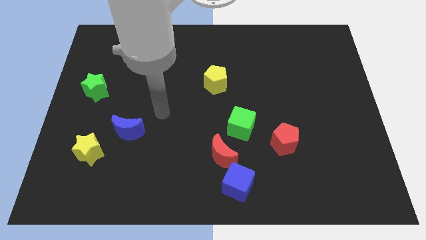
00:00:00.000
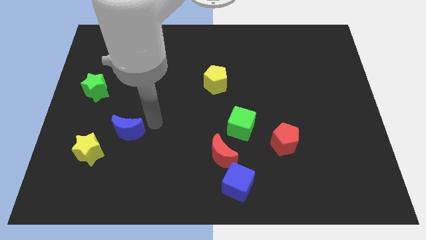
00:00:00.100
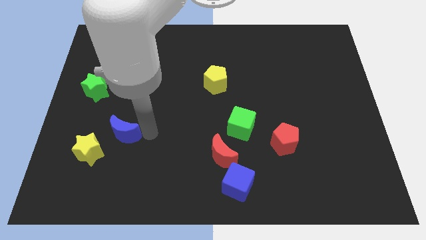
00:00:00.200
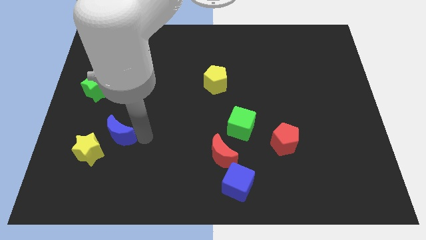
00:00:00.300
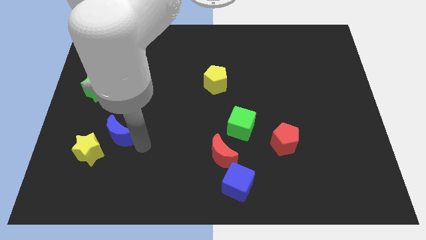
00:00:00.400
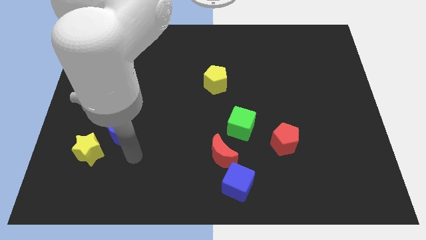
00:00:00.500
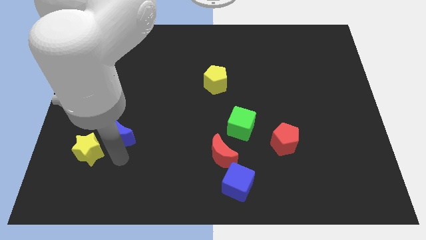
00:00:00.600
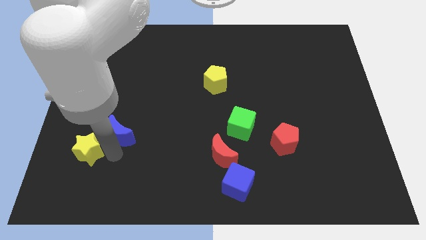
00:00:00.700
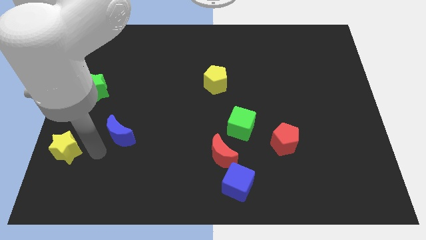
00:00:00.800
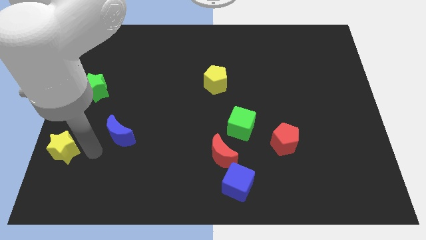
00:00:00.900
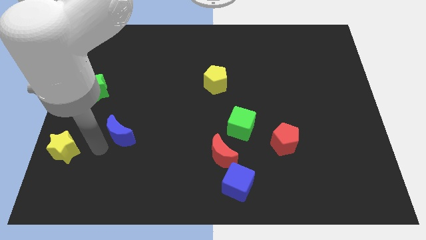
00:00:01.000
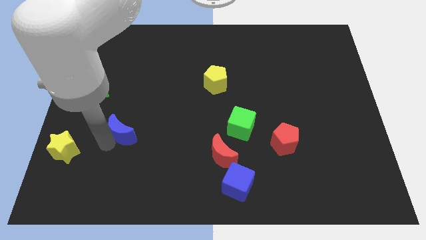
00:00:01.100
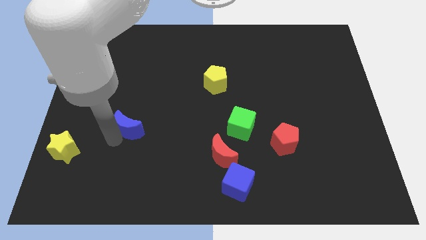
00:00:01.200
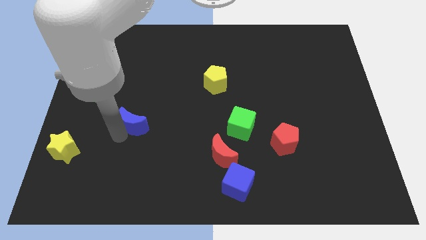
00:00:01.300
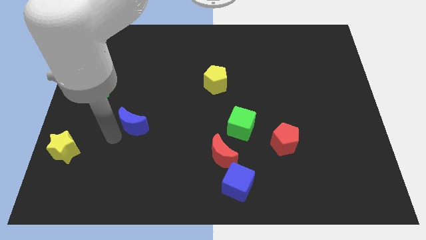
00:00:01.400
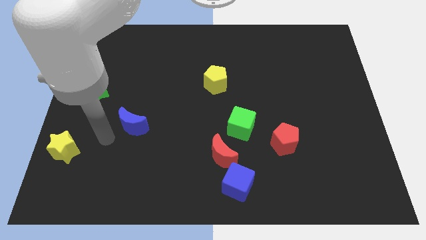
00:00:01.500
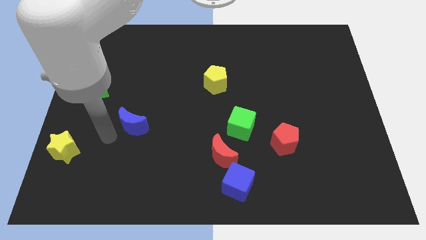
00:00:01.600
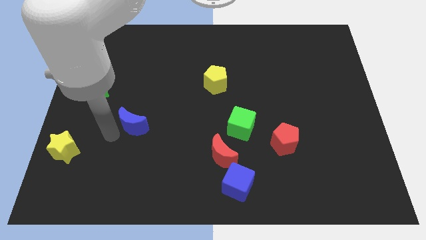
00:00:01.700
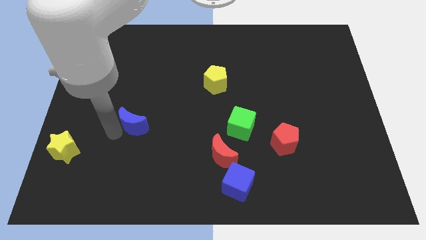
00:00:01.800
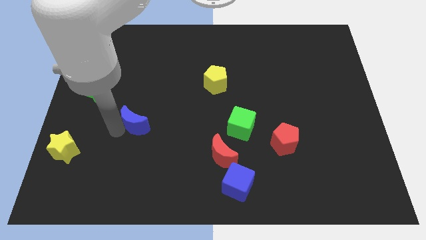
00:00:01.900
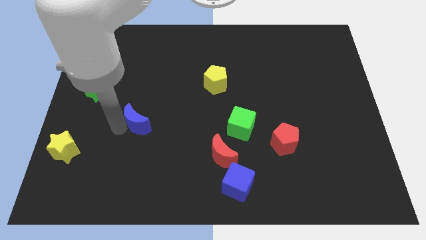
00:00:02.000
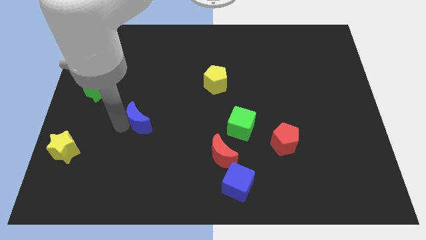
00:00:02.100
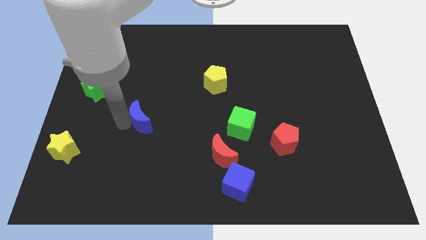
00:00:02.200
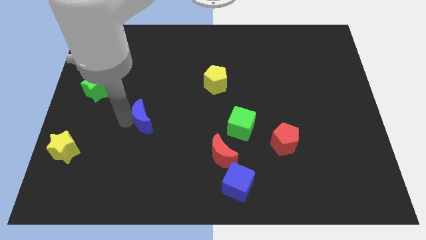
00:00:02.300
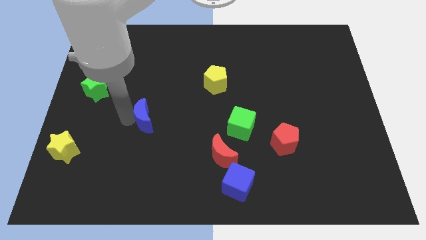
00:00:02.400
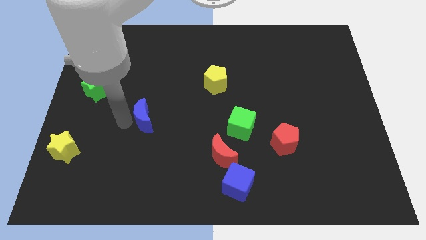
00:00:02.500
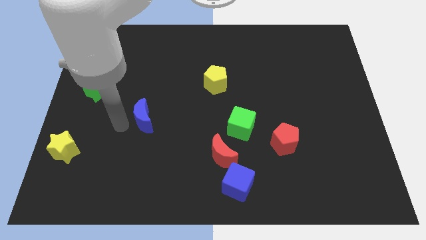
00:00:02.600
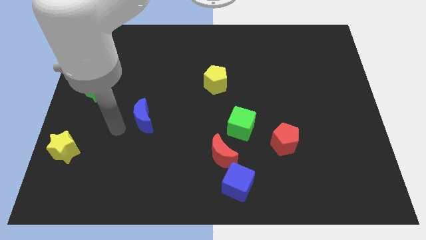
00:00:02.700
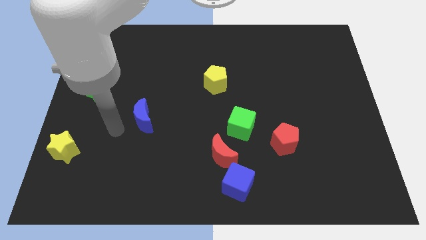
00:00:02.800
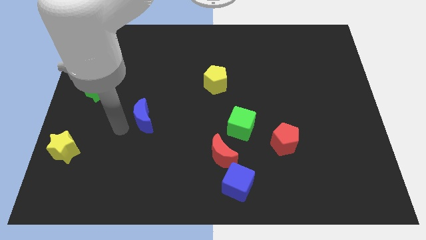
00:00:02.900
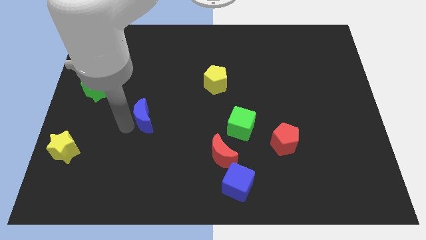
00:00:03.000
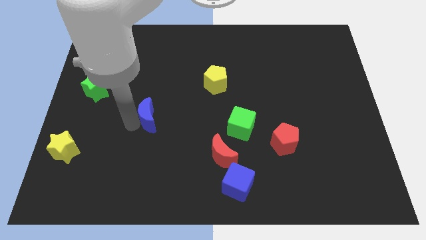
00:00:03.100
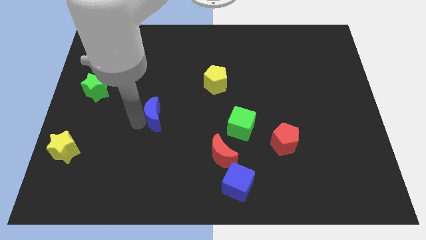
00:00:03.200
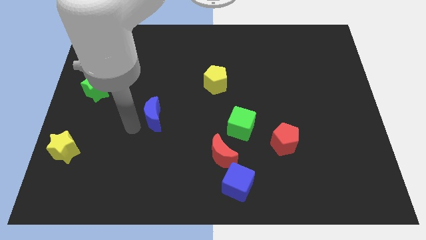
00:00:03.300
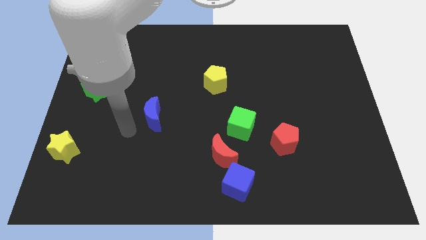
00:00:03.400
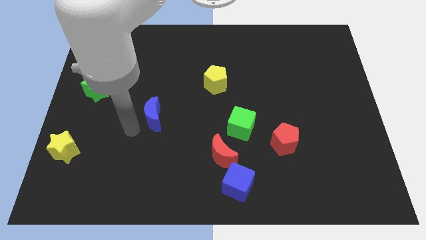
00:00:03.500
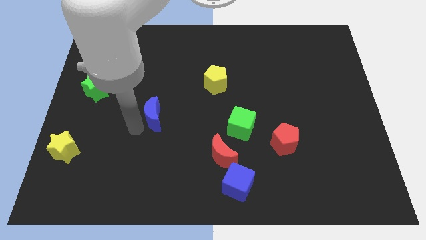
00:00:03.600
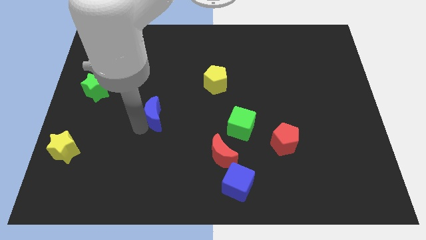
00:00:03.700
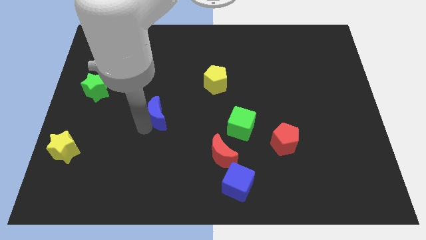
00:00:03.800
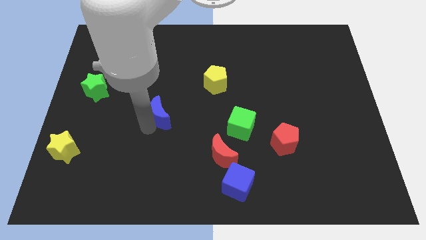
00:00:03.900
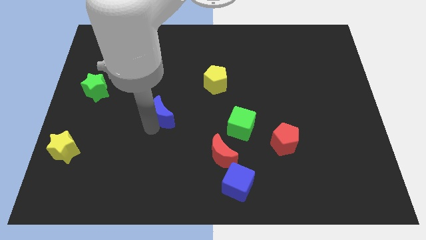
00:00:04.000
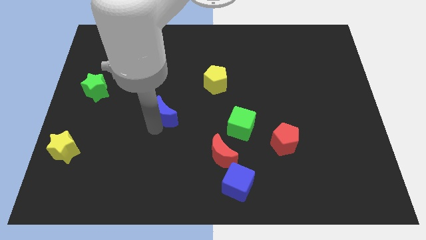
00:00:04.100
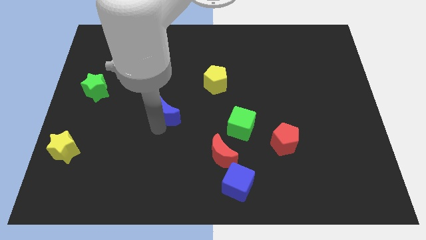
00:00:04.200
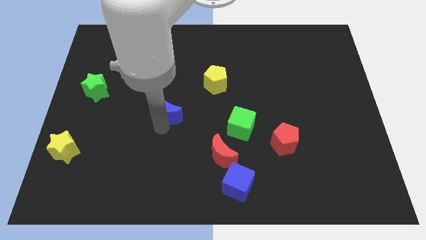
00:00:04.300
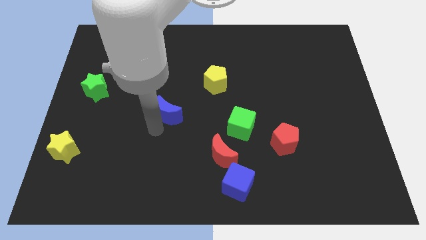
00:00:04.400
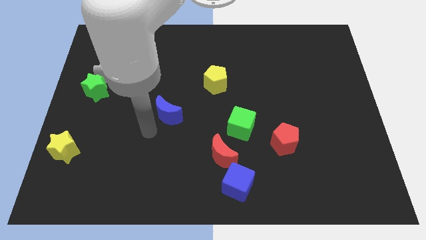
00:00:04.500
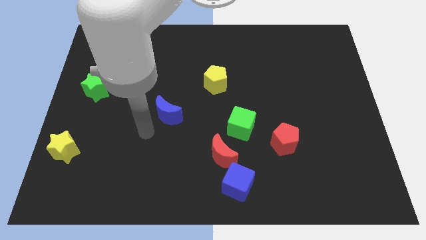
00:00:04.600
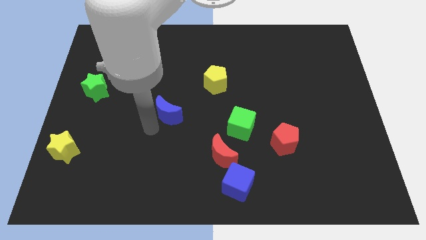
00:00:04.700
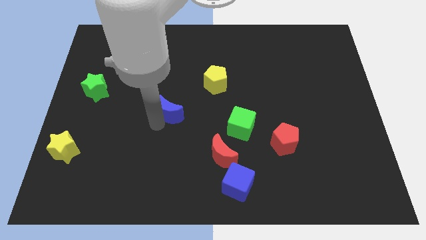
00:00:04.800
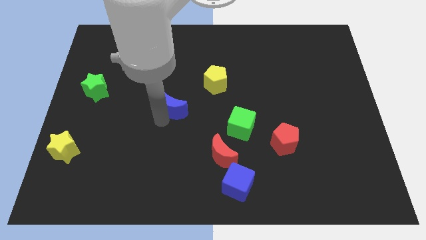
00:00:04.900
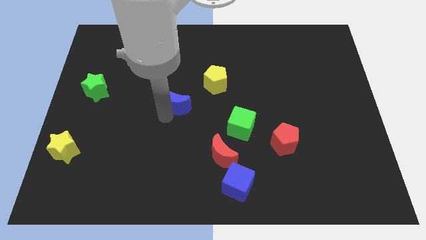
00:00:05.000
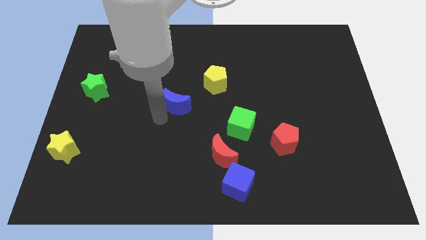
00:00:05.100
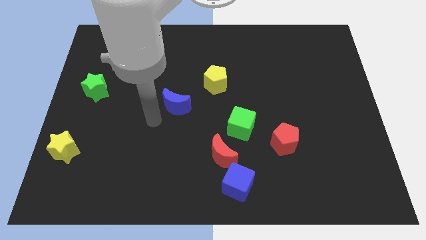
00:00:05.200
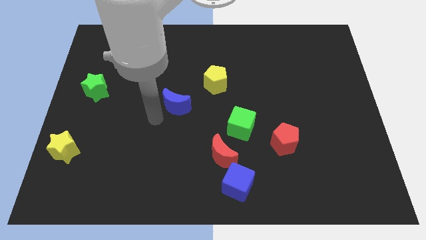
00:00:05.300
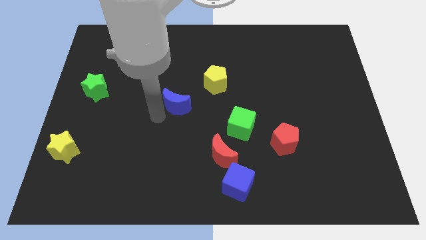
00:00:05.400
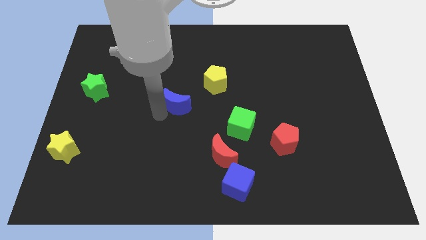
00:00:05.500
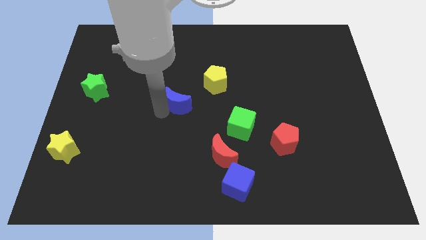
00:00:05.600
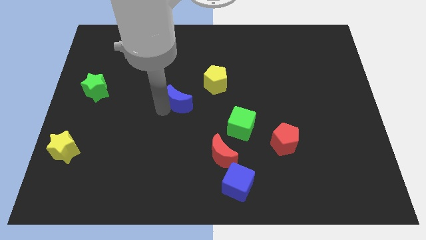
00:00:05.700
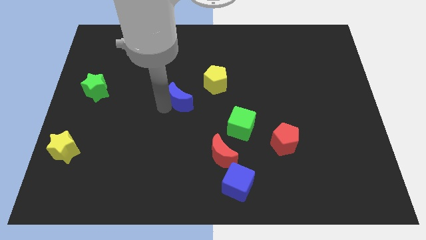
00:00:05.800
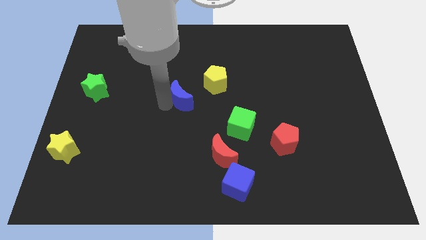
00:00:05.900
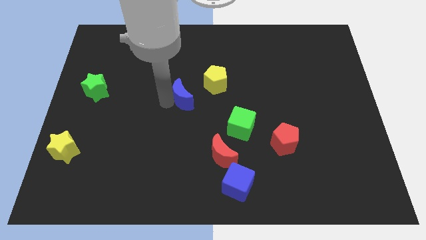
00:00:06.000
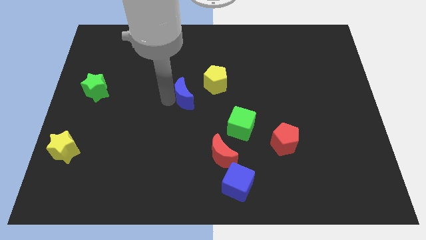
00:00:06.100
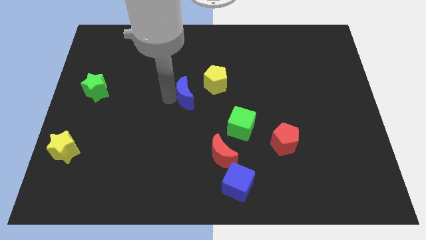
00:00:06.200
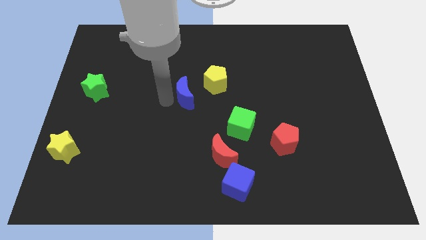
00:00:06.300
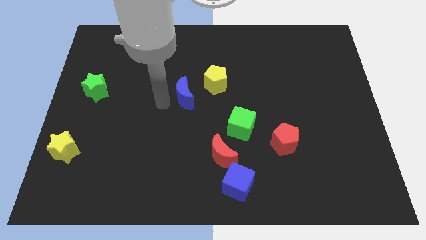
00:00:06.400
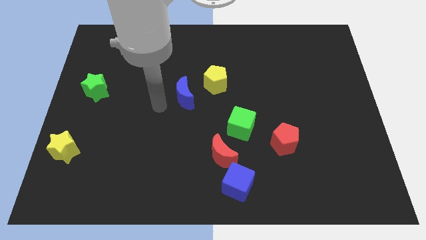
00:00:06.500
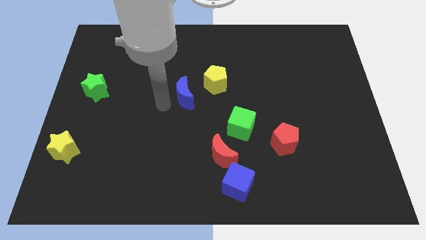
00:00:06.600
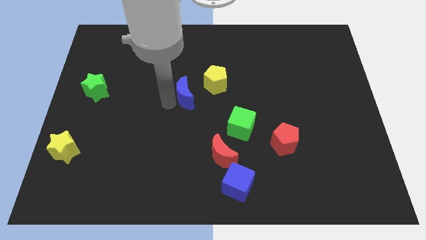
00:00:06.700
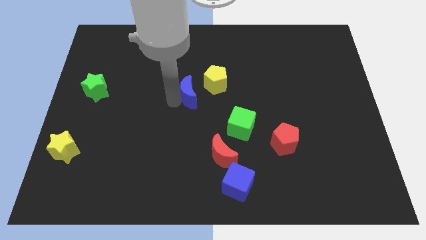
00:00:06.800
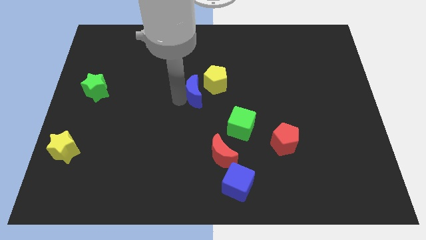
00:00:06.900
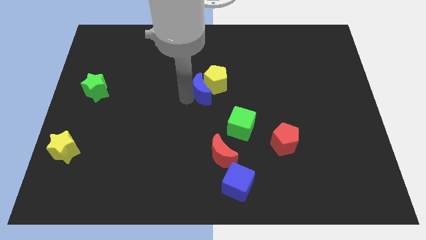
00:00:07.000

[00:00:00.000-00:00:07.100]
slide the blue moon towards the yellow pentagon

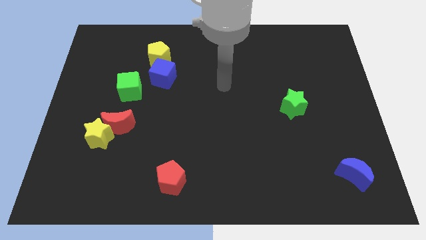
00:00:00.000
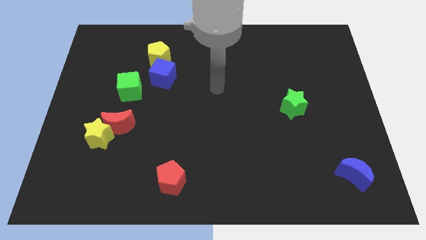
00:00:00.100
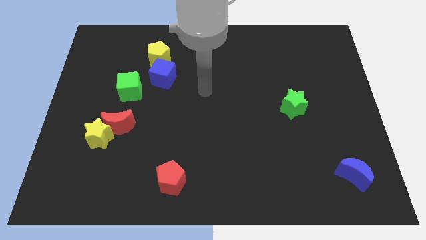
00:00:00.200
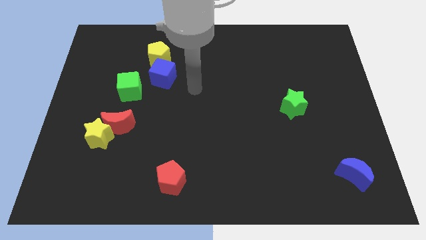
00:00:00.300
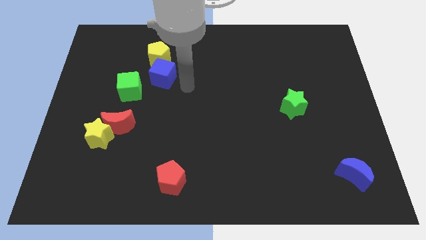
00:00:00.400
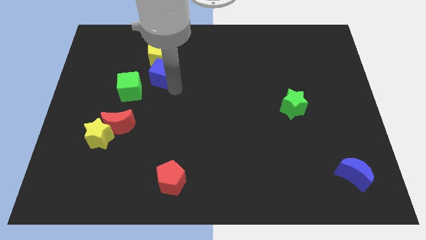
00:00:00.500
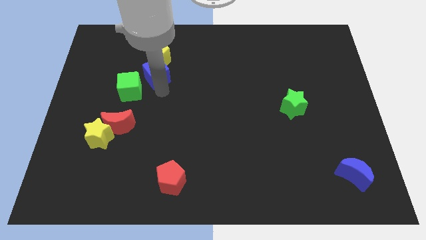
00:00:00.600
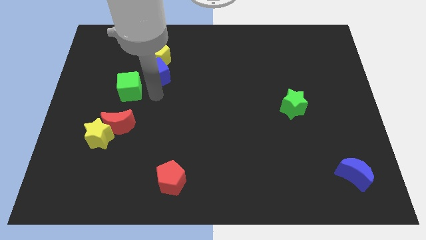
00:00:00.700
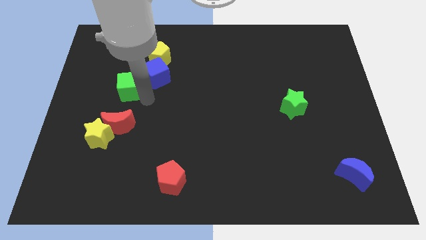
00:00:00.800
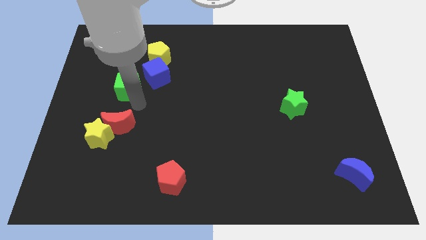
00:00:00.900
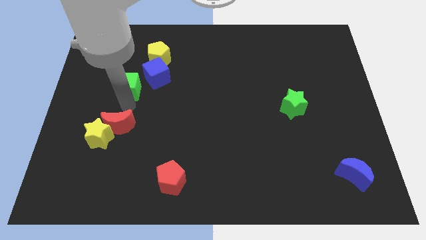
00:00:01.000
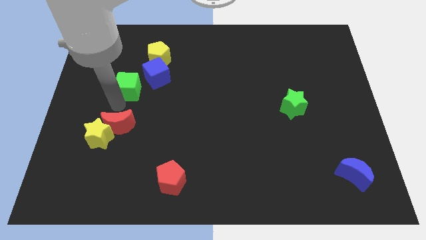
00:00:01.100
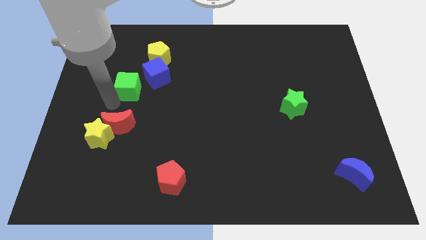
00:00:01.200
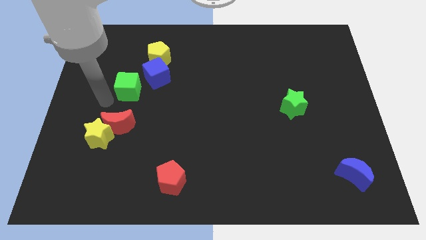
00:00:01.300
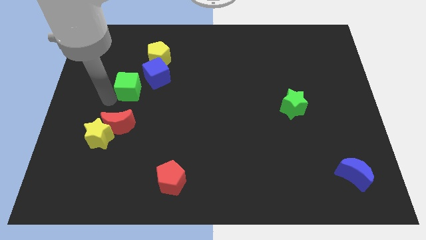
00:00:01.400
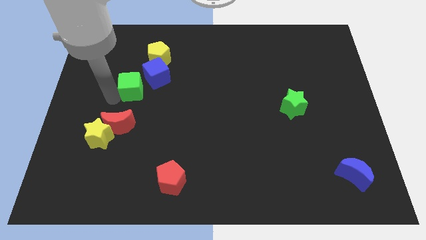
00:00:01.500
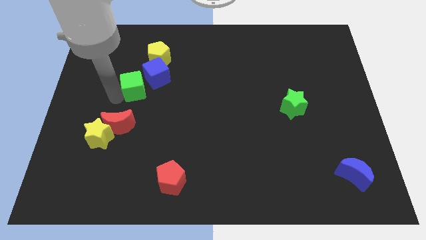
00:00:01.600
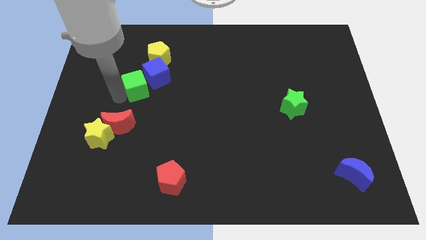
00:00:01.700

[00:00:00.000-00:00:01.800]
move the green cube towards the blue cube
